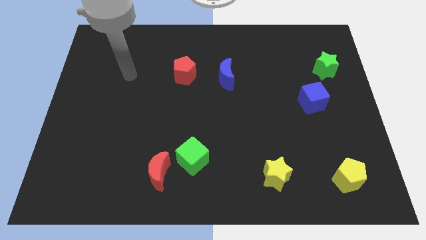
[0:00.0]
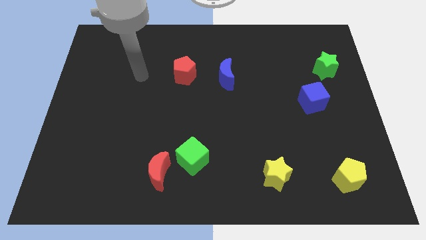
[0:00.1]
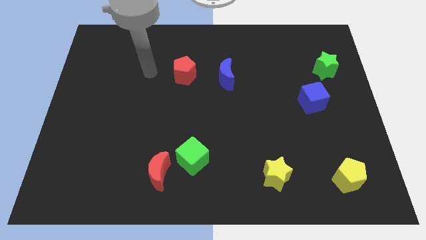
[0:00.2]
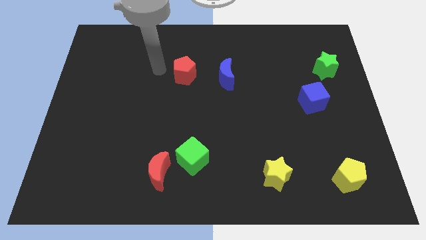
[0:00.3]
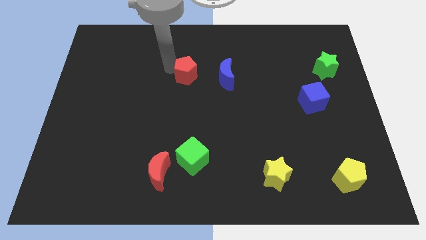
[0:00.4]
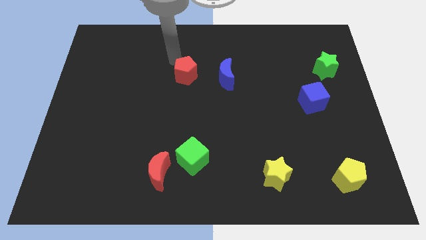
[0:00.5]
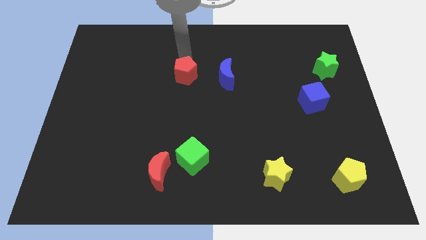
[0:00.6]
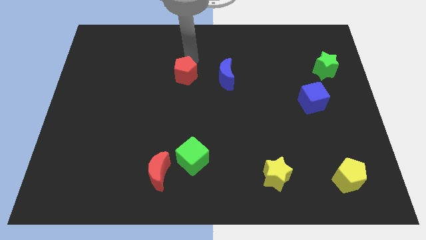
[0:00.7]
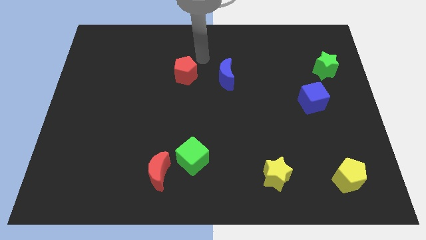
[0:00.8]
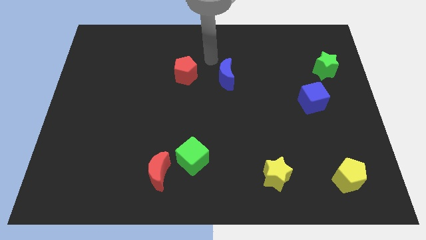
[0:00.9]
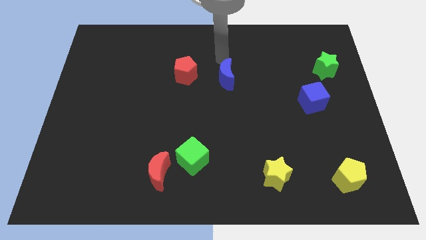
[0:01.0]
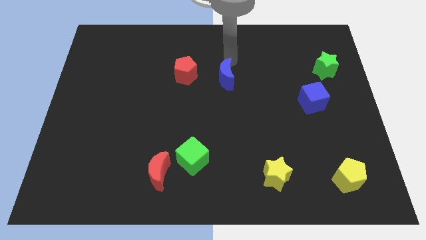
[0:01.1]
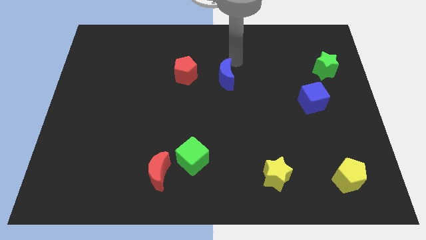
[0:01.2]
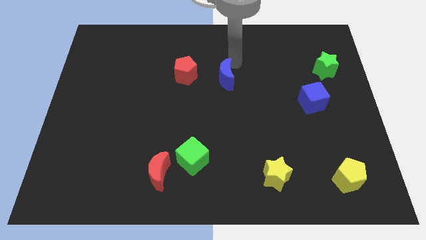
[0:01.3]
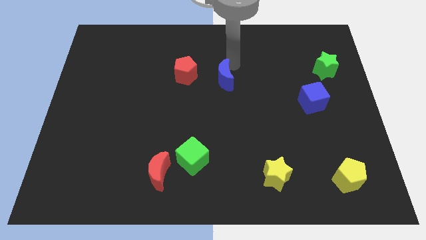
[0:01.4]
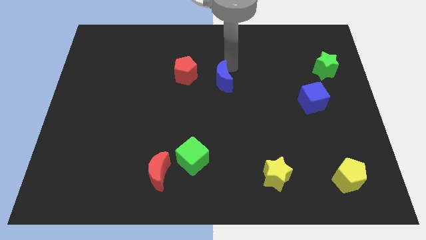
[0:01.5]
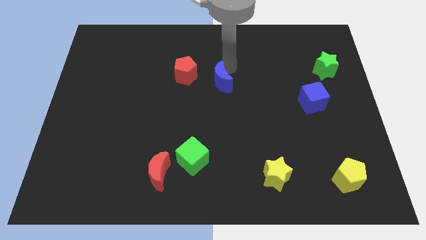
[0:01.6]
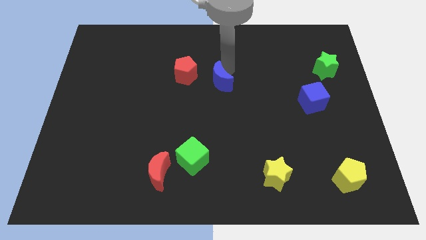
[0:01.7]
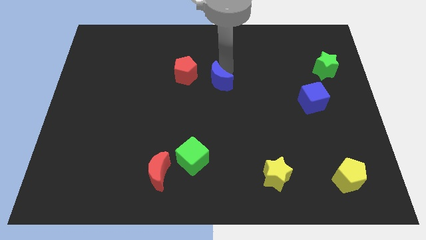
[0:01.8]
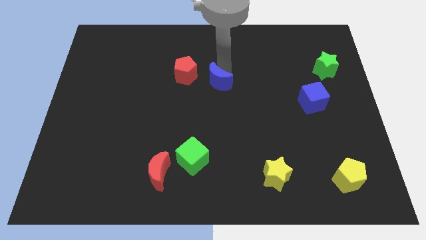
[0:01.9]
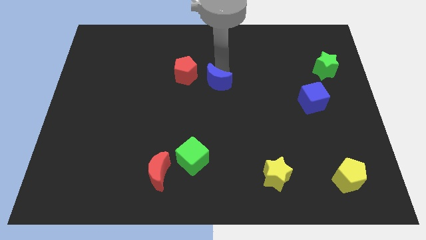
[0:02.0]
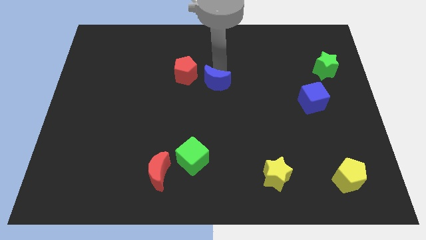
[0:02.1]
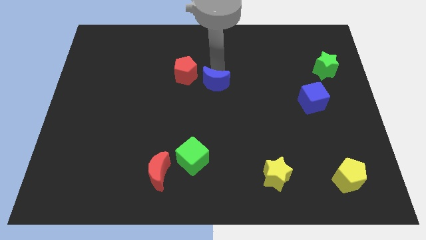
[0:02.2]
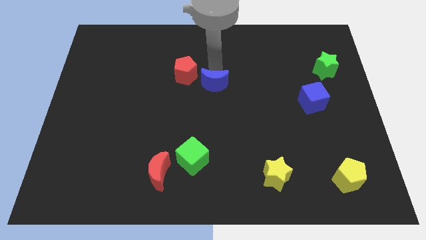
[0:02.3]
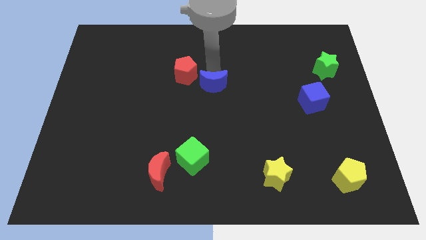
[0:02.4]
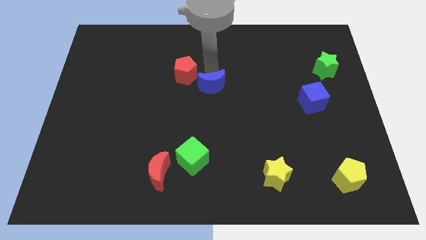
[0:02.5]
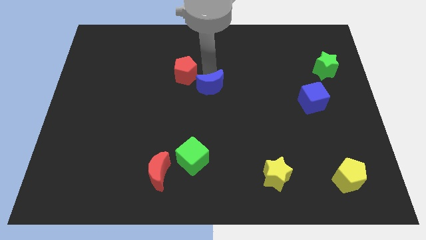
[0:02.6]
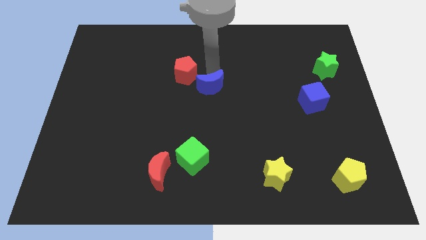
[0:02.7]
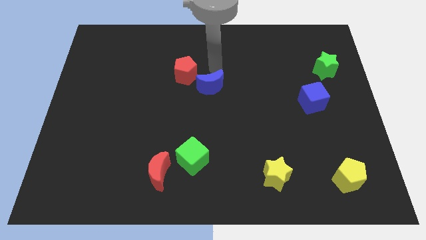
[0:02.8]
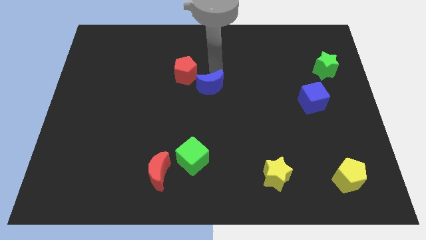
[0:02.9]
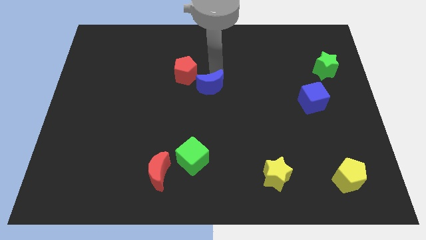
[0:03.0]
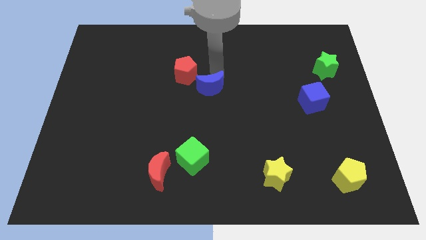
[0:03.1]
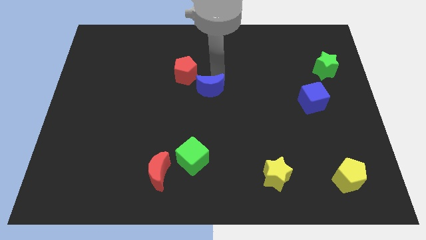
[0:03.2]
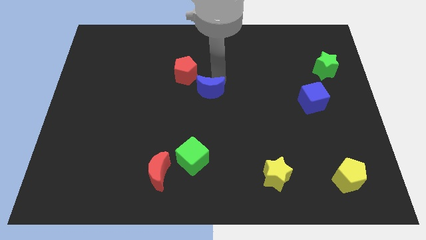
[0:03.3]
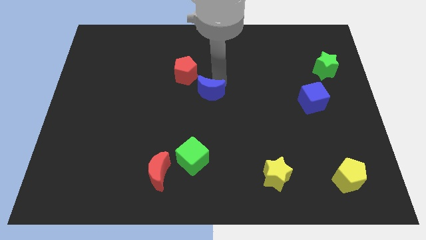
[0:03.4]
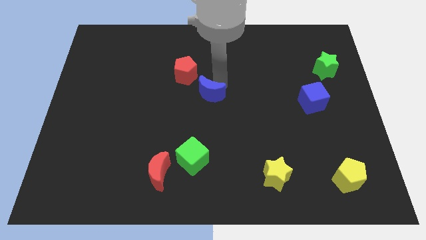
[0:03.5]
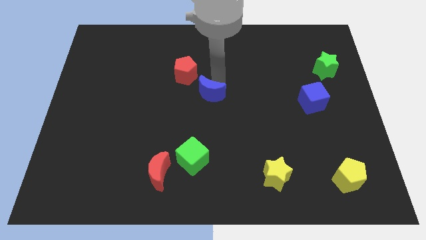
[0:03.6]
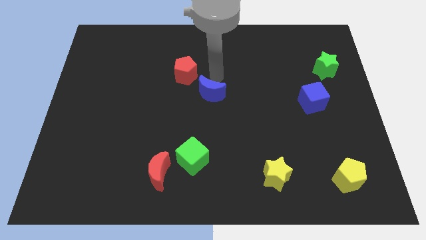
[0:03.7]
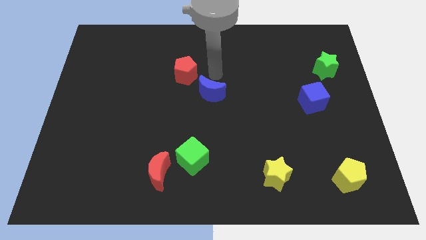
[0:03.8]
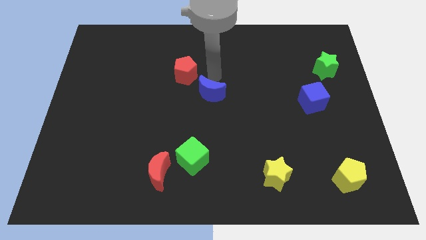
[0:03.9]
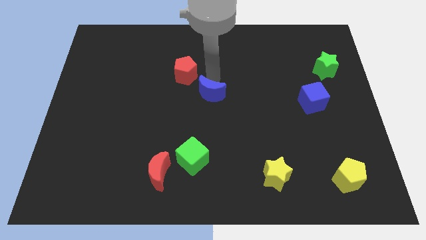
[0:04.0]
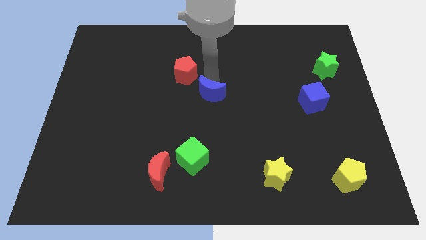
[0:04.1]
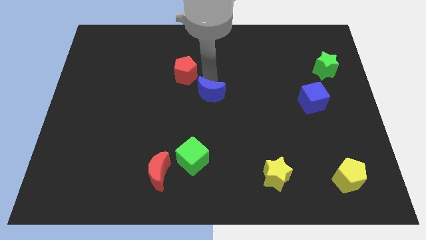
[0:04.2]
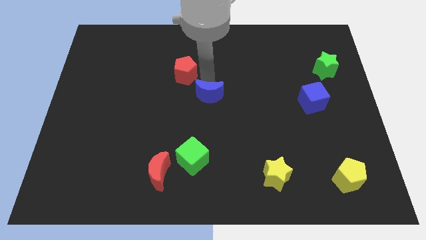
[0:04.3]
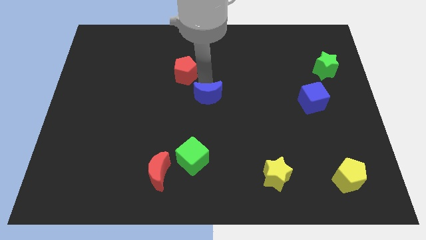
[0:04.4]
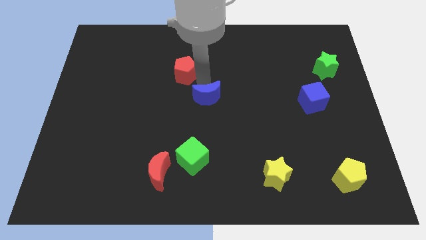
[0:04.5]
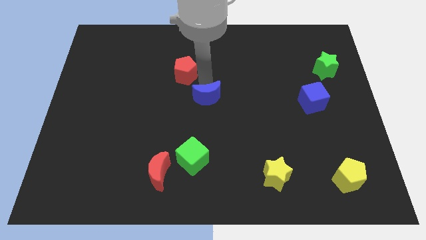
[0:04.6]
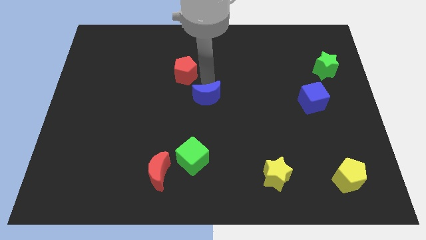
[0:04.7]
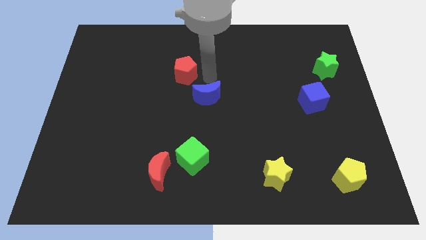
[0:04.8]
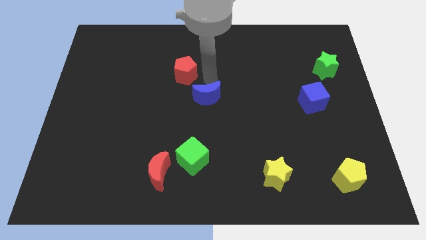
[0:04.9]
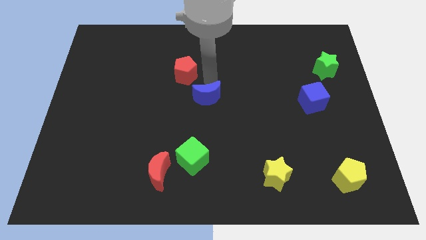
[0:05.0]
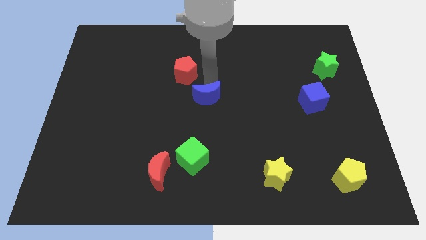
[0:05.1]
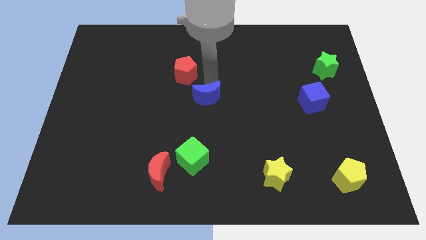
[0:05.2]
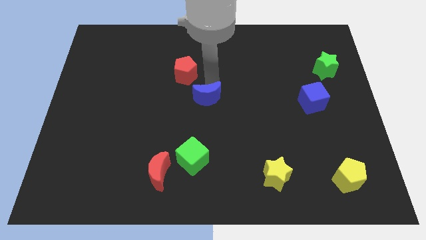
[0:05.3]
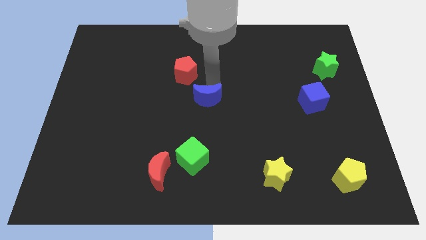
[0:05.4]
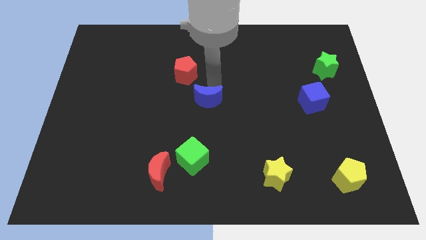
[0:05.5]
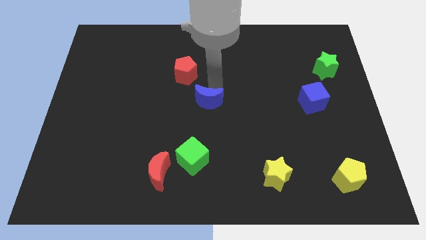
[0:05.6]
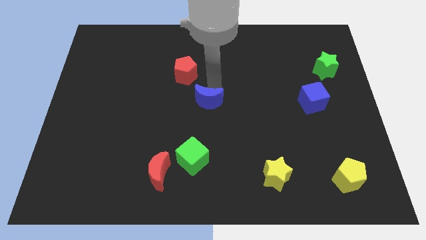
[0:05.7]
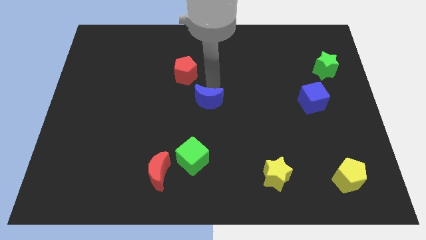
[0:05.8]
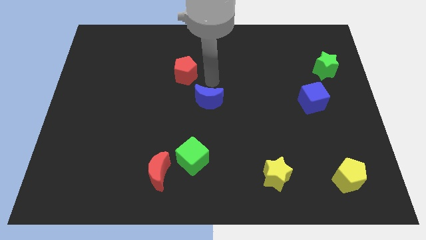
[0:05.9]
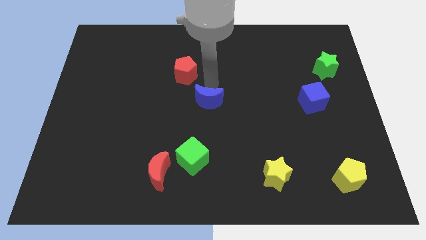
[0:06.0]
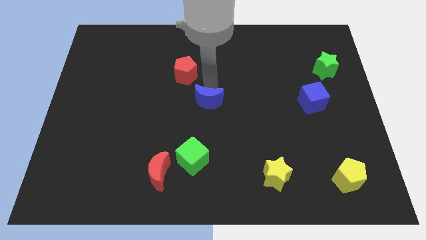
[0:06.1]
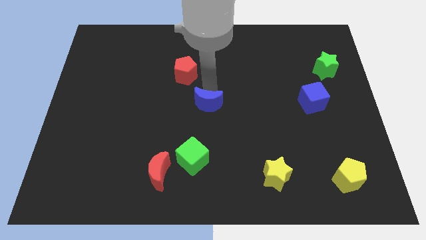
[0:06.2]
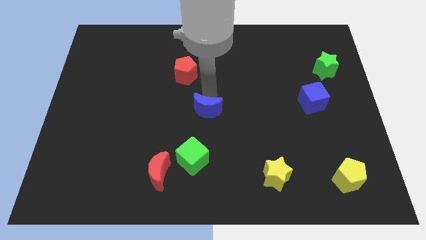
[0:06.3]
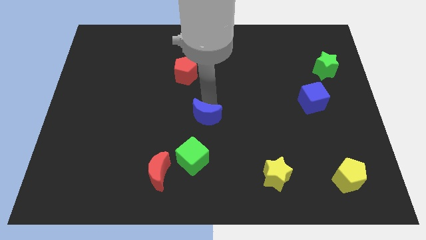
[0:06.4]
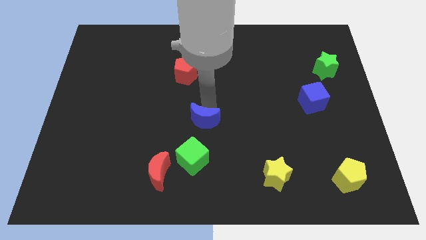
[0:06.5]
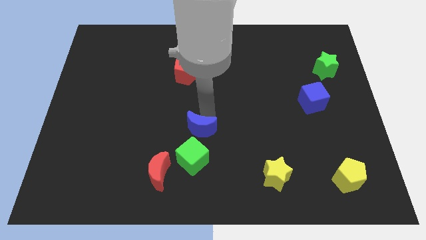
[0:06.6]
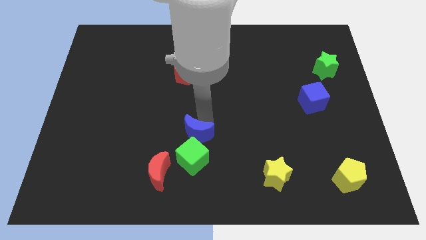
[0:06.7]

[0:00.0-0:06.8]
put the blue moon to the top right of the red moon
